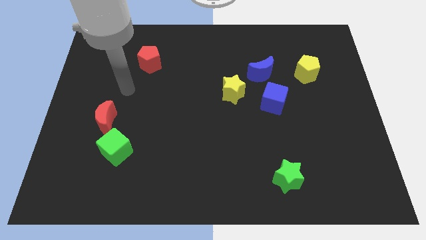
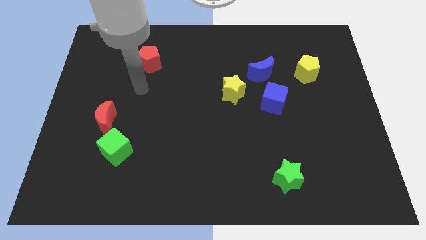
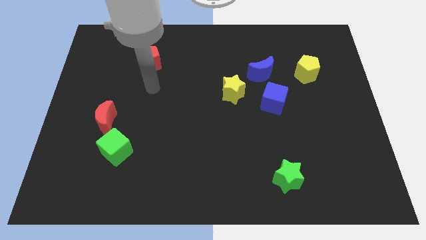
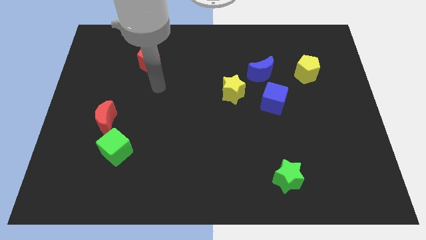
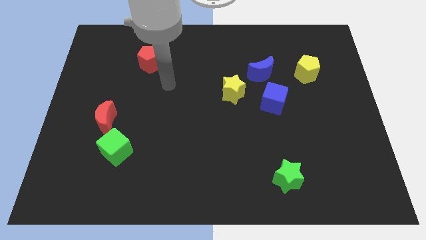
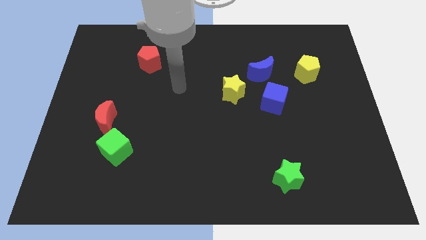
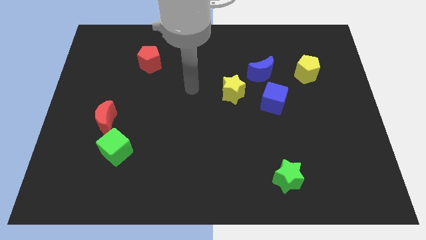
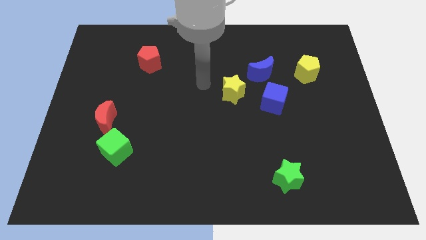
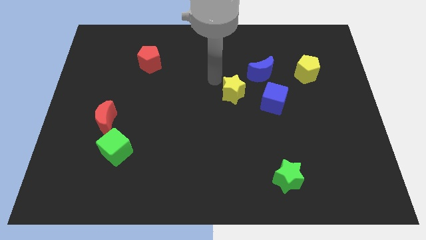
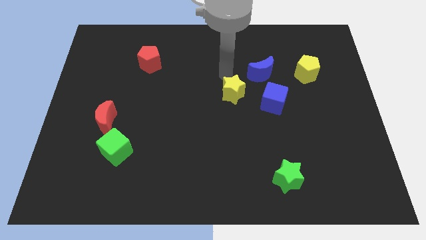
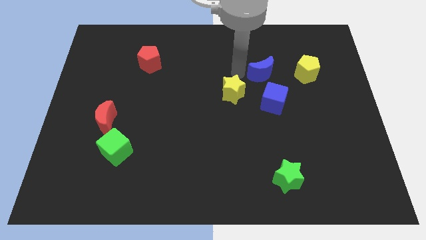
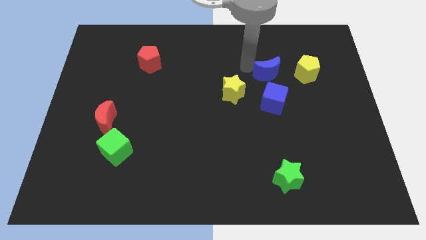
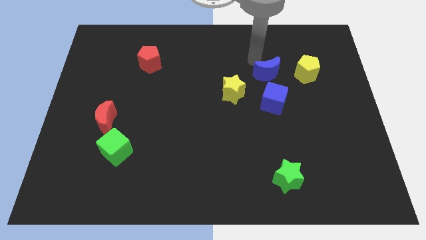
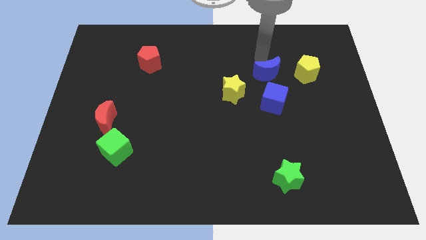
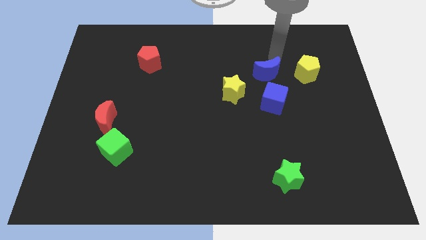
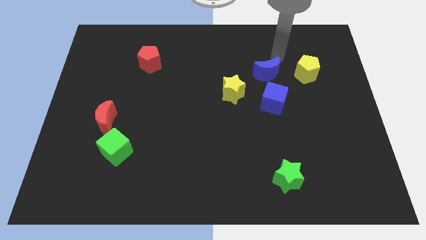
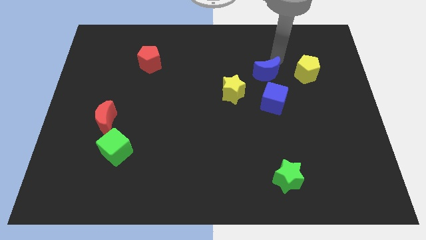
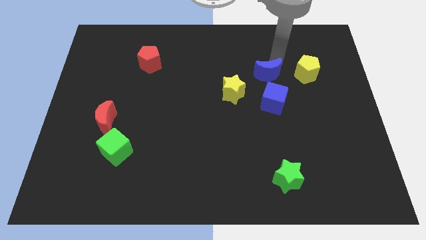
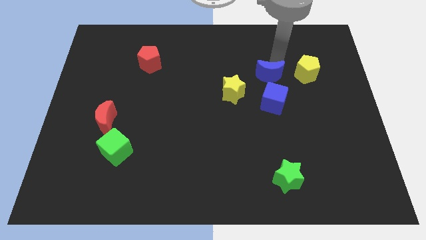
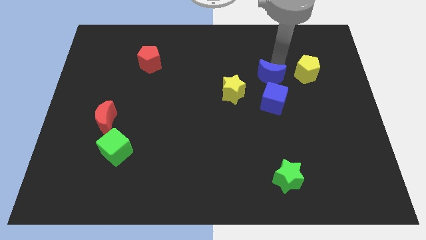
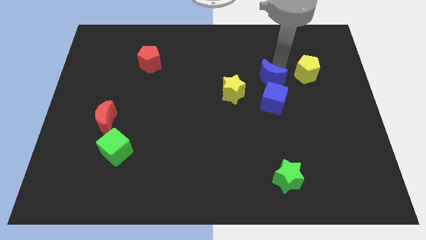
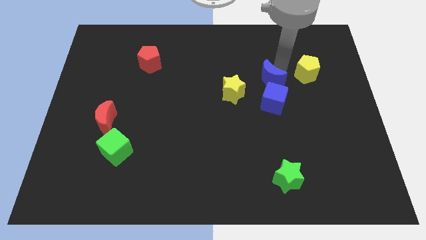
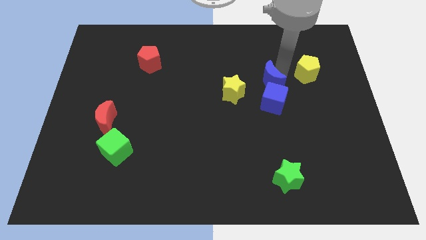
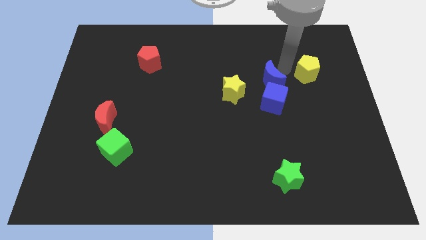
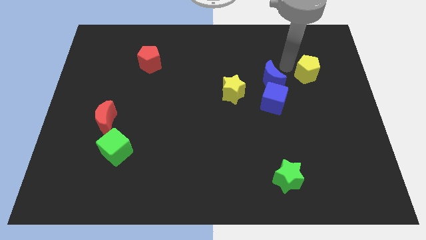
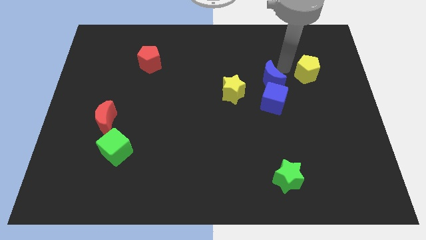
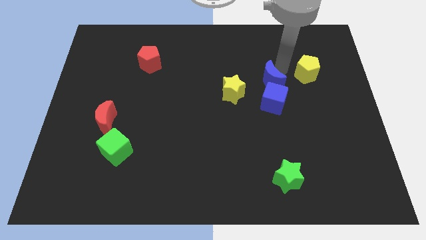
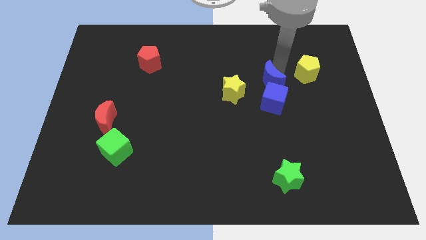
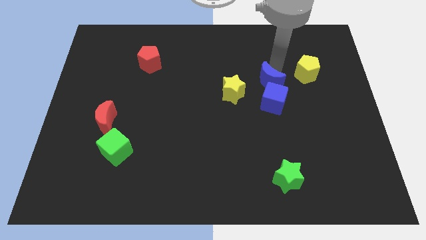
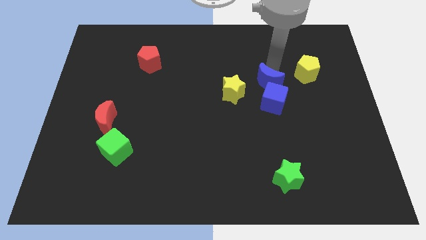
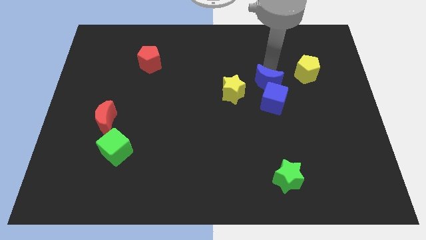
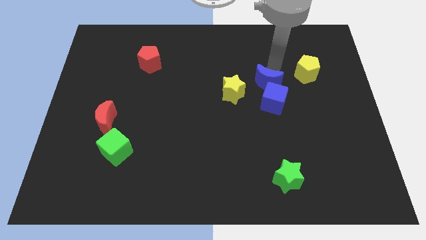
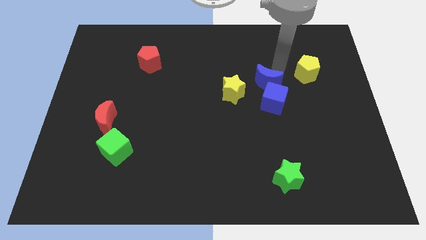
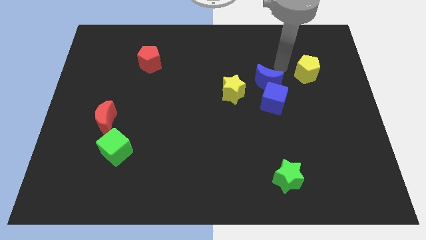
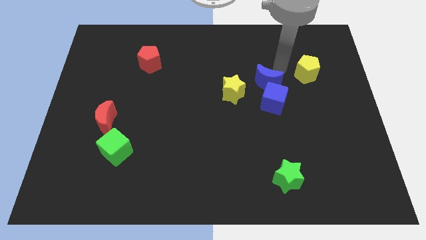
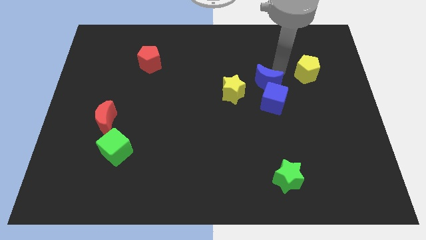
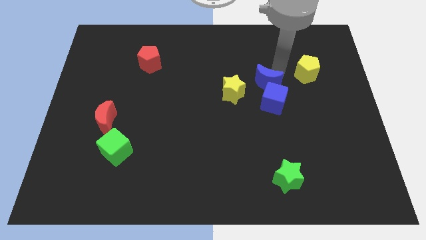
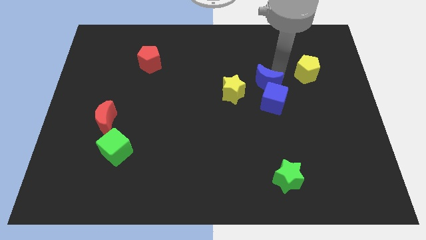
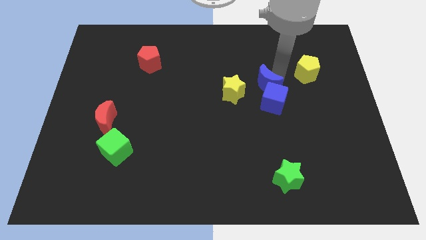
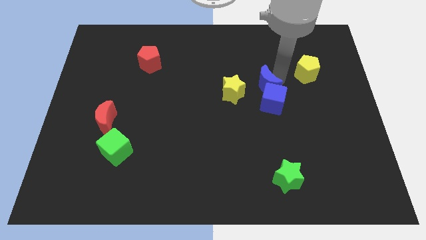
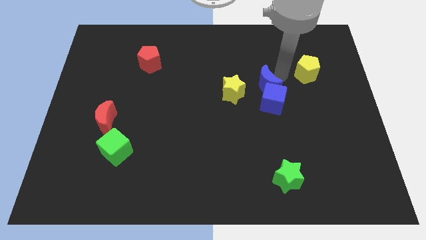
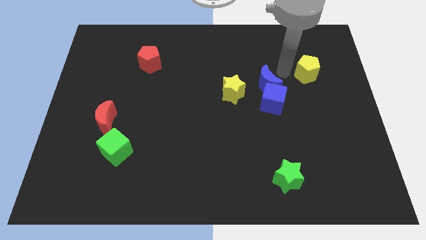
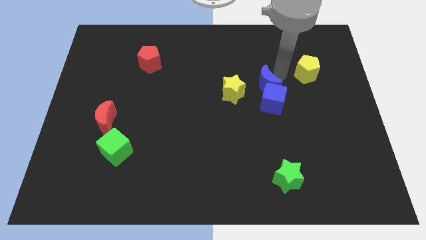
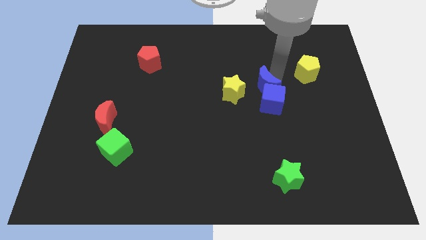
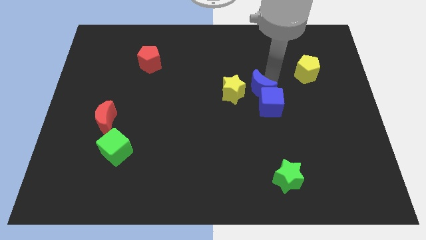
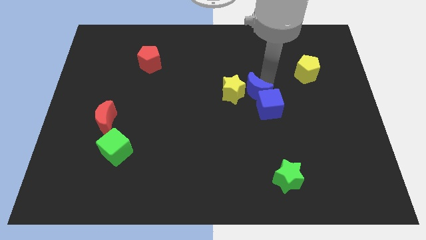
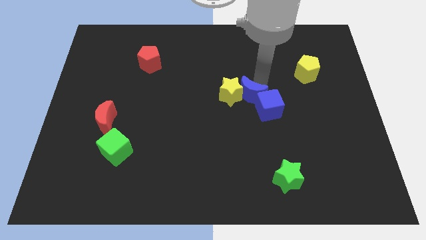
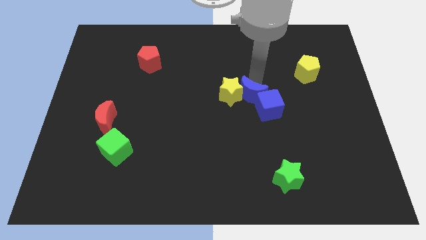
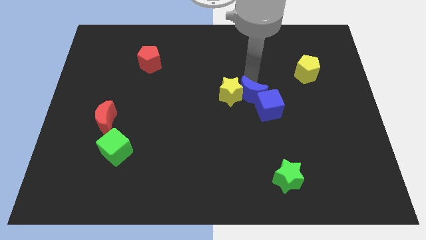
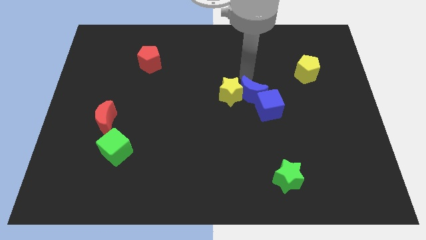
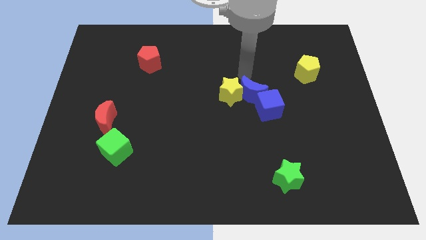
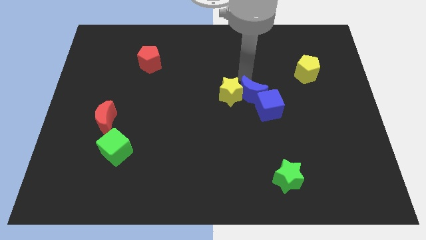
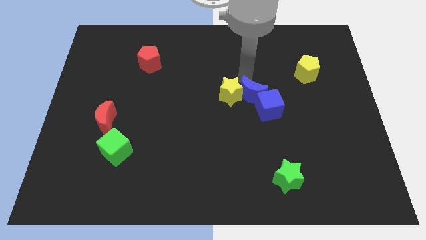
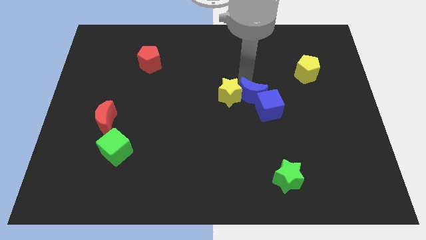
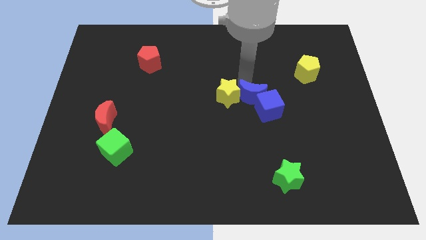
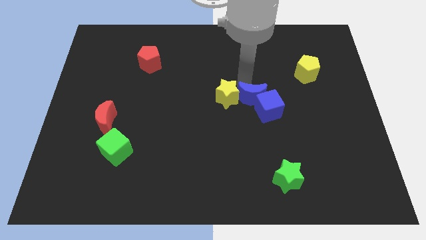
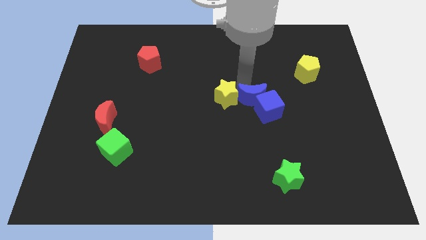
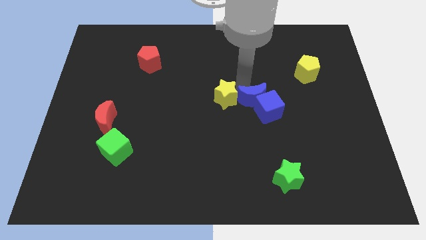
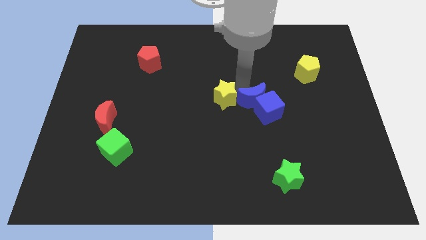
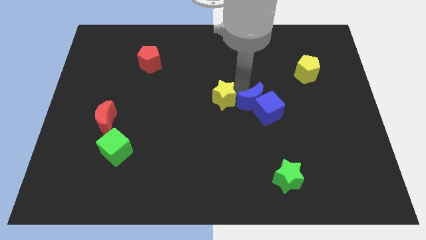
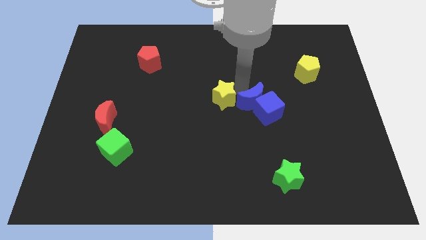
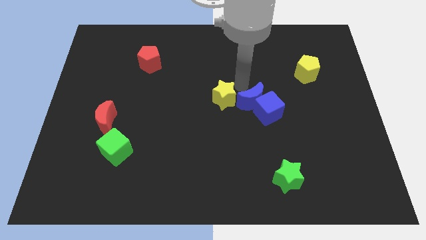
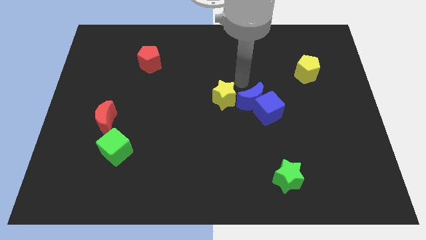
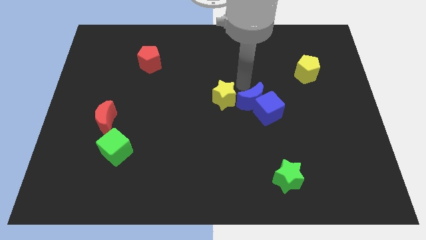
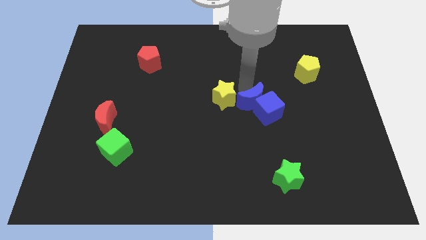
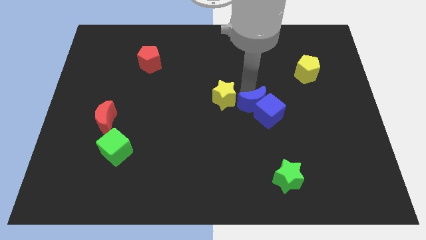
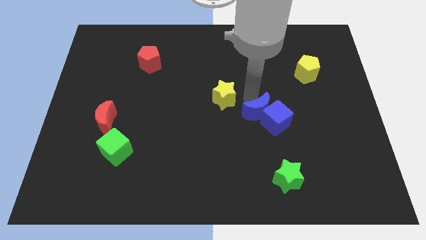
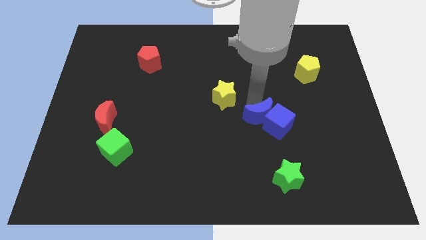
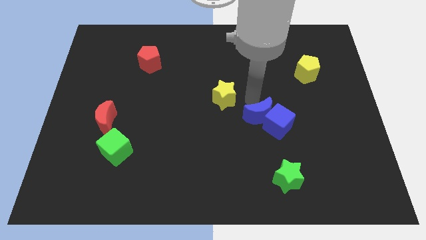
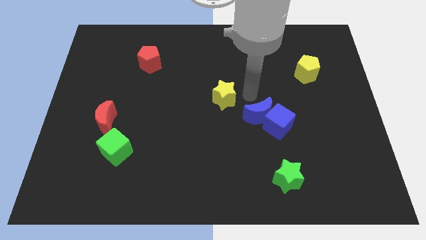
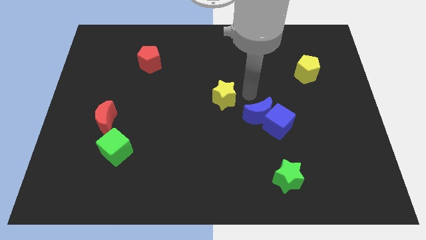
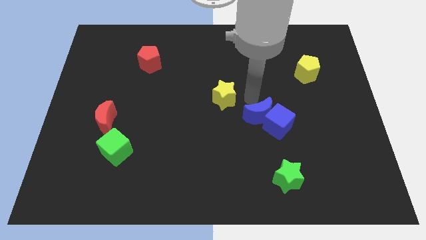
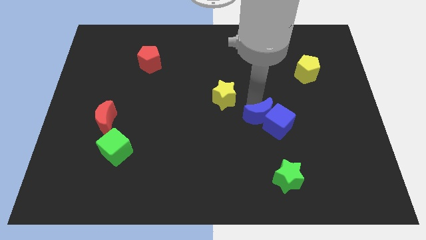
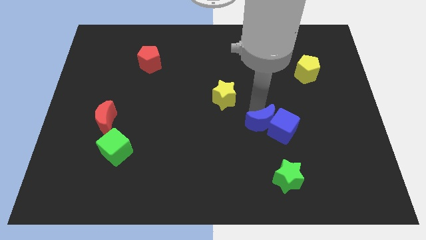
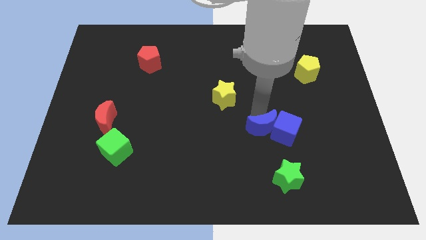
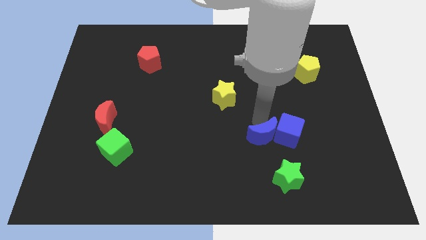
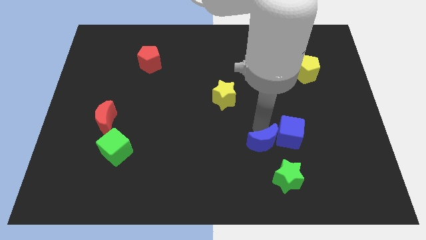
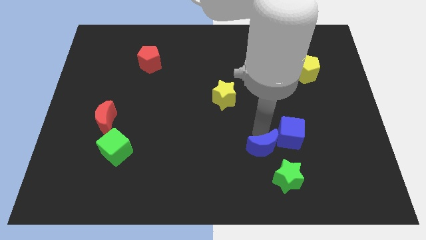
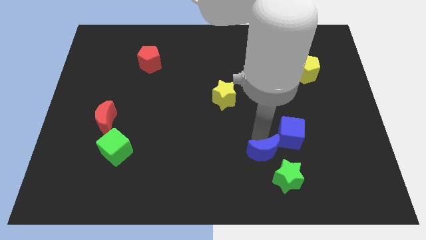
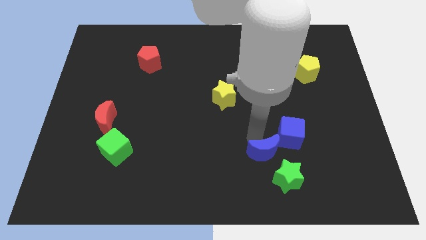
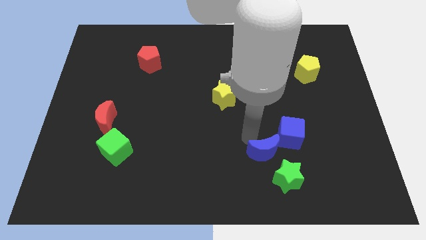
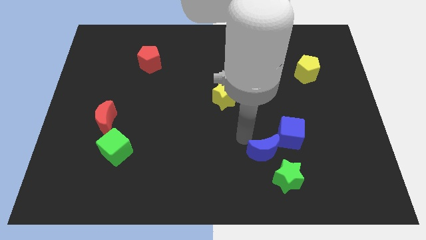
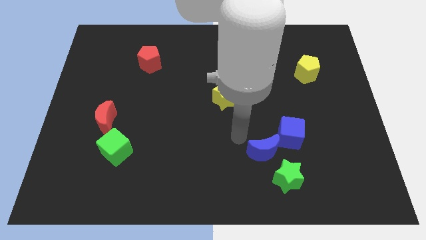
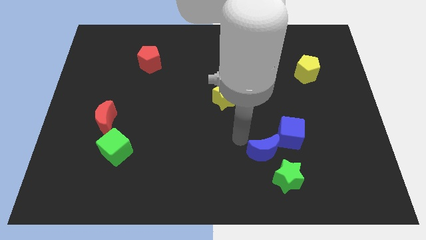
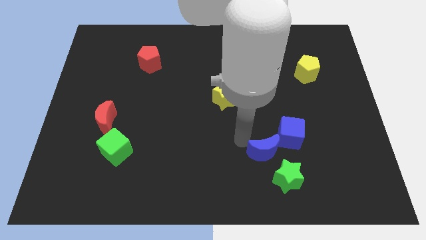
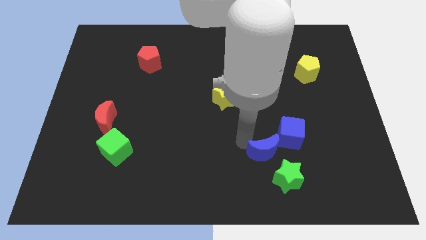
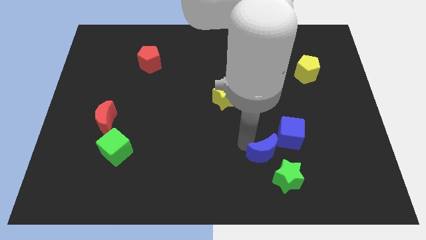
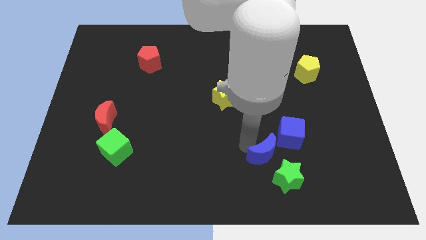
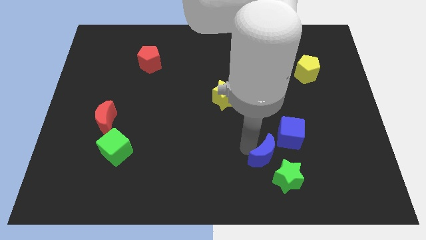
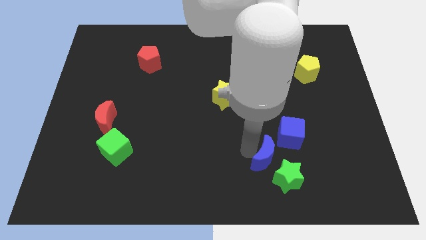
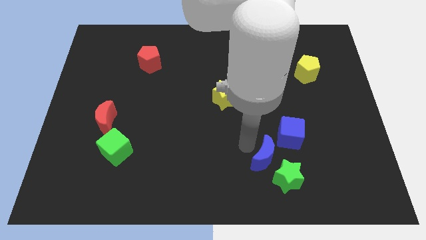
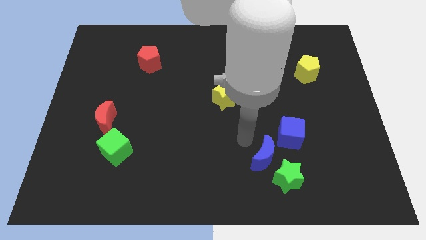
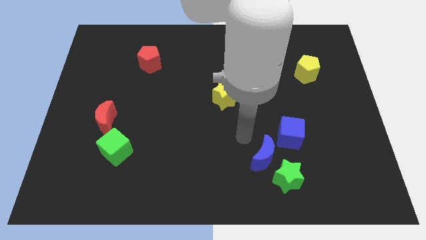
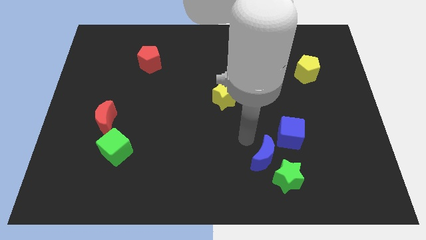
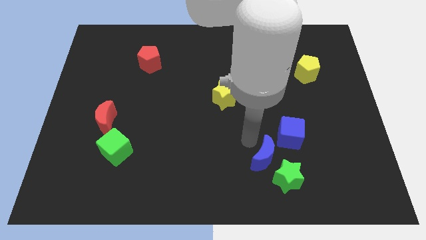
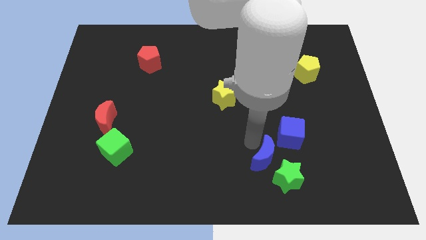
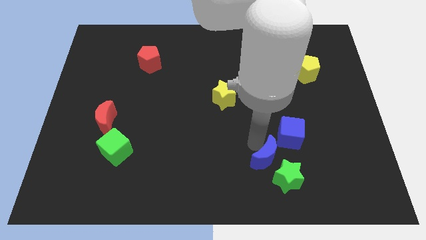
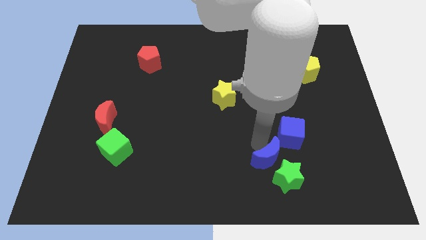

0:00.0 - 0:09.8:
slide the blue moon towards the green star
